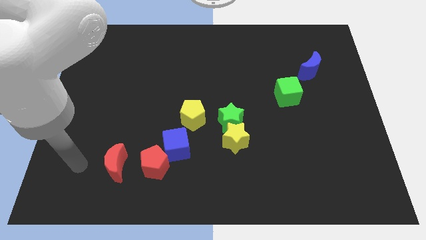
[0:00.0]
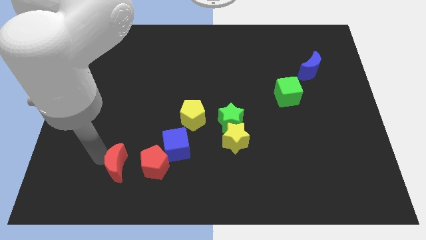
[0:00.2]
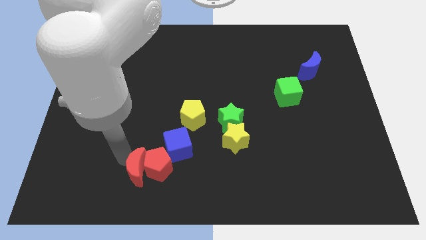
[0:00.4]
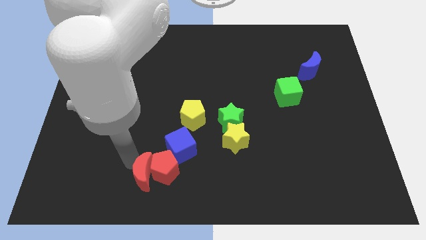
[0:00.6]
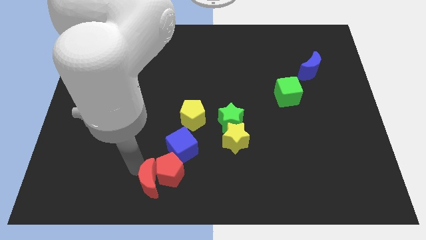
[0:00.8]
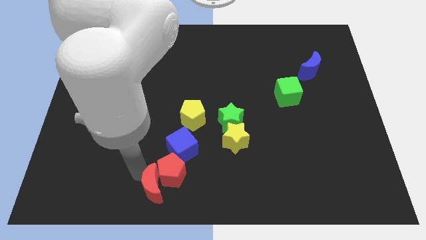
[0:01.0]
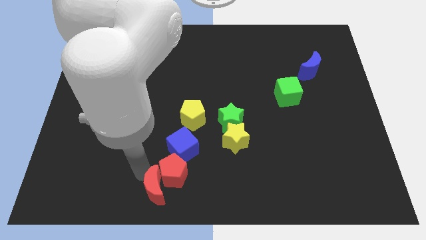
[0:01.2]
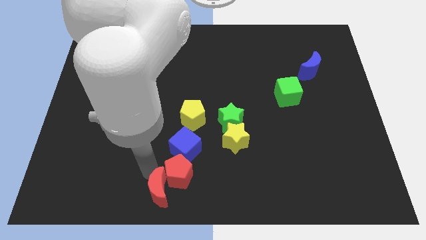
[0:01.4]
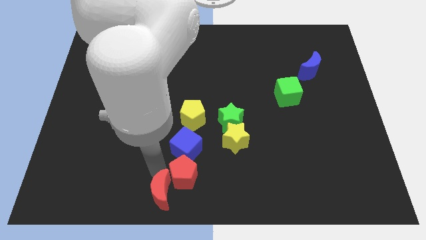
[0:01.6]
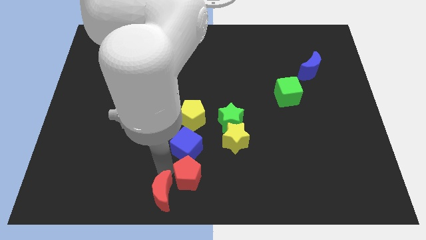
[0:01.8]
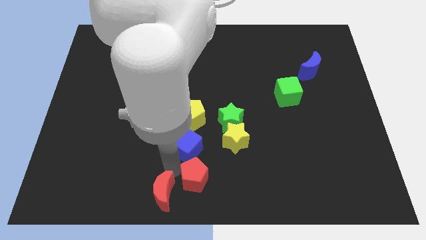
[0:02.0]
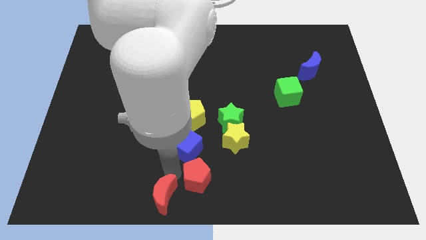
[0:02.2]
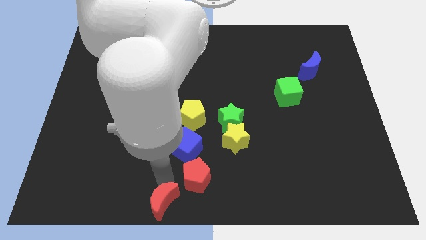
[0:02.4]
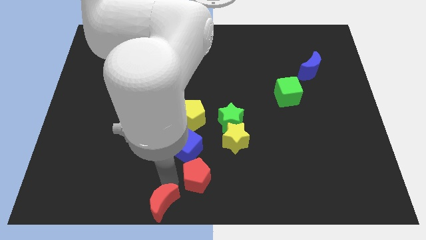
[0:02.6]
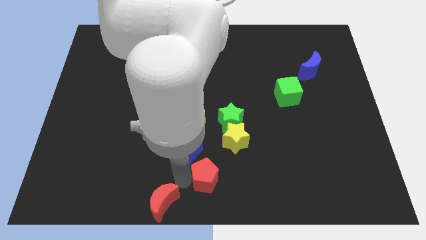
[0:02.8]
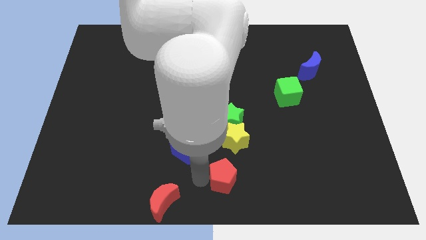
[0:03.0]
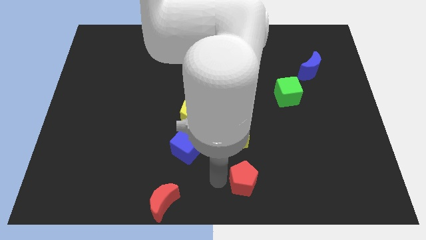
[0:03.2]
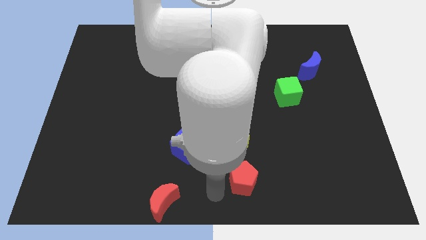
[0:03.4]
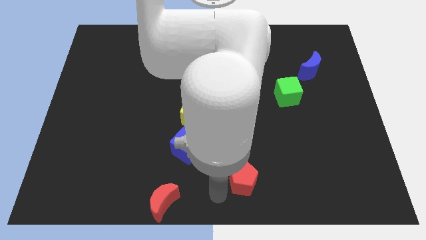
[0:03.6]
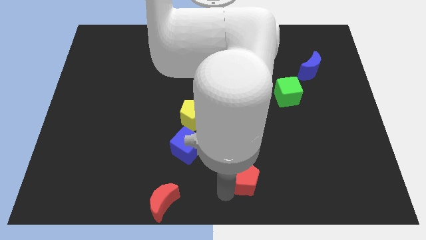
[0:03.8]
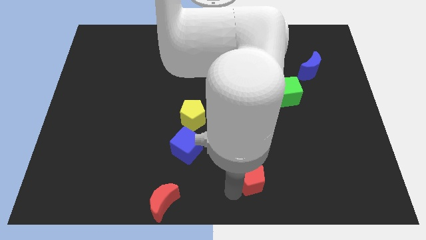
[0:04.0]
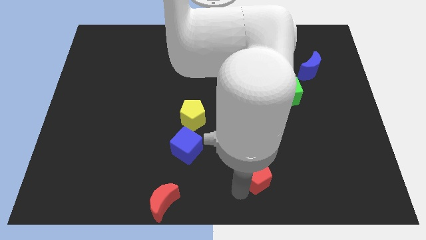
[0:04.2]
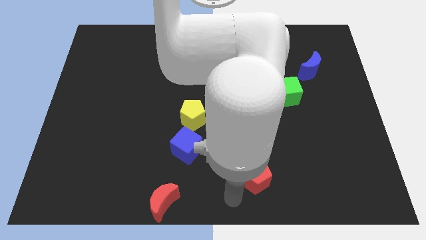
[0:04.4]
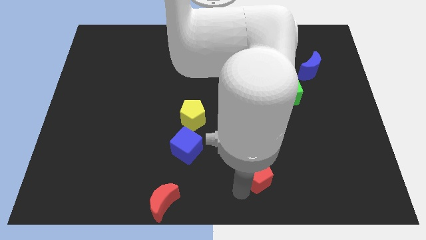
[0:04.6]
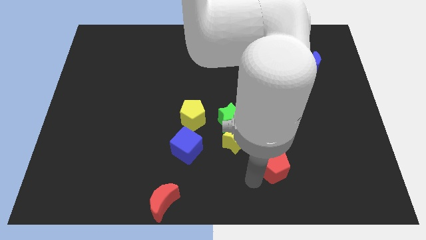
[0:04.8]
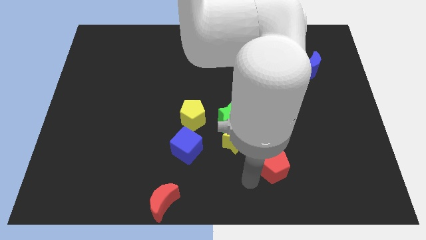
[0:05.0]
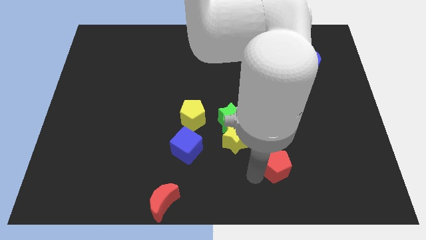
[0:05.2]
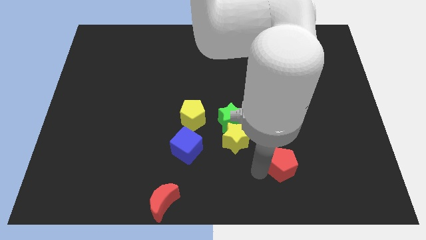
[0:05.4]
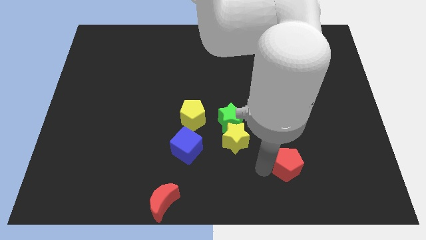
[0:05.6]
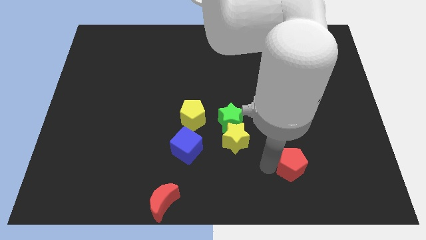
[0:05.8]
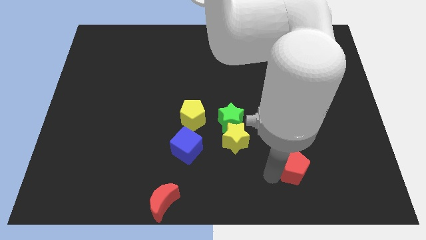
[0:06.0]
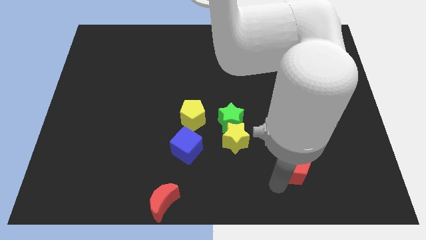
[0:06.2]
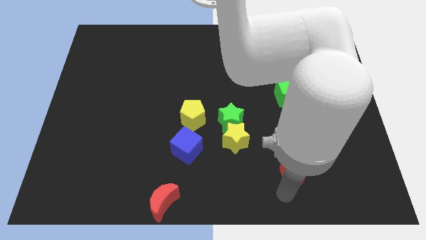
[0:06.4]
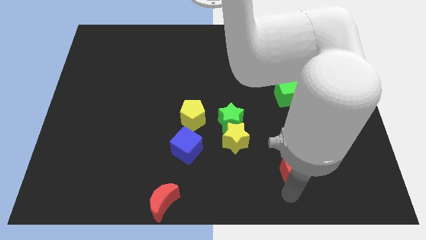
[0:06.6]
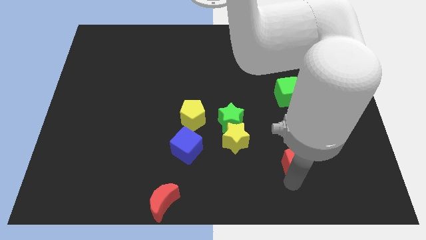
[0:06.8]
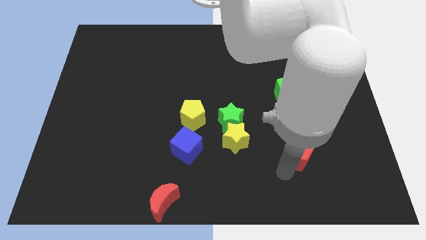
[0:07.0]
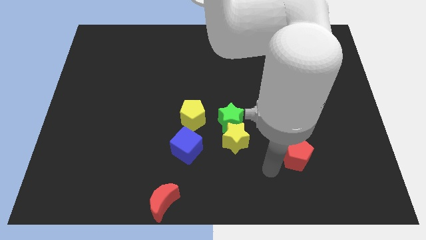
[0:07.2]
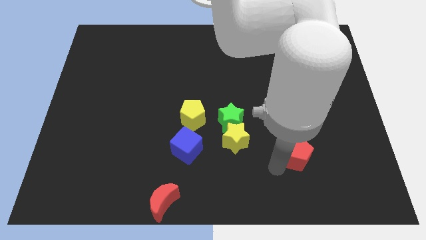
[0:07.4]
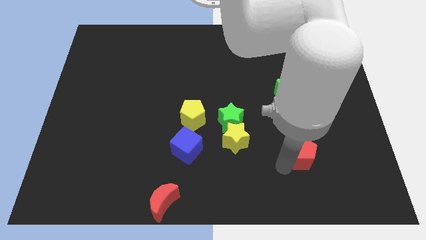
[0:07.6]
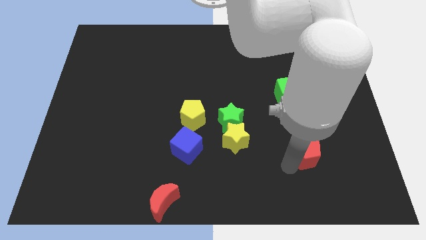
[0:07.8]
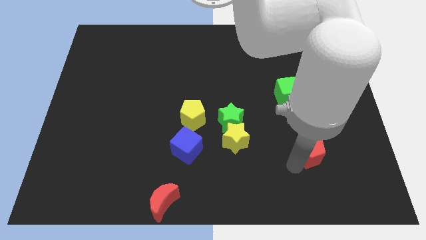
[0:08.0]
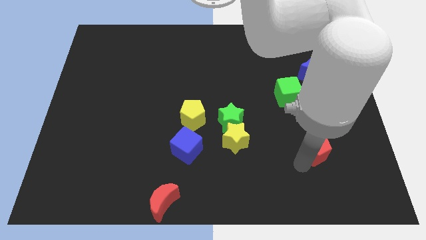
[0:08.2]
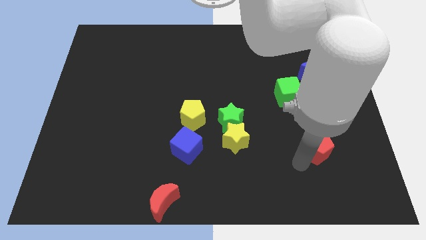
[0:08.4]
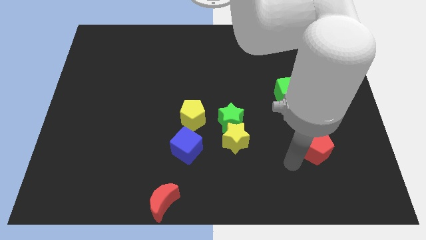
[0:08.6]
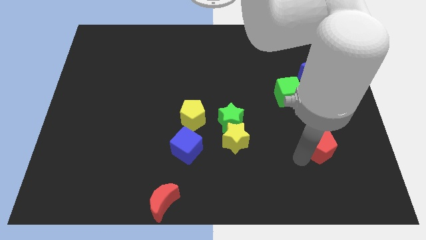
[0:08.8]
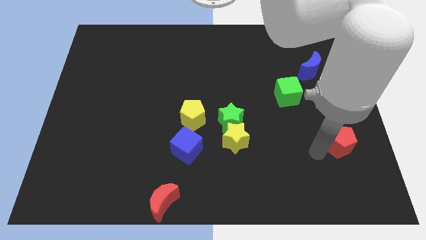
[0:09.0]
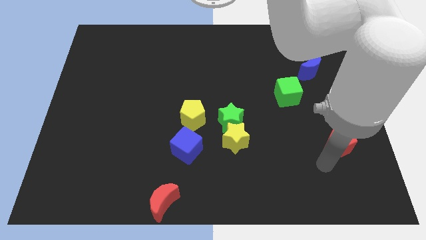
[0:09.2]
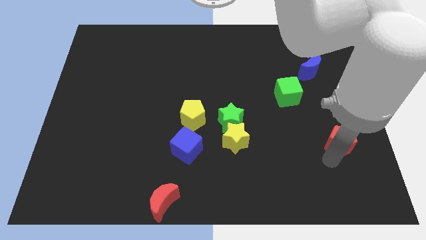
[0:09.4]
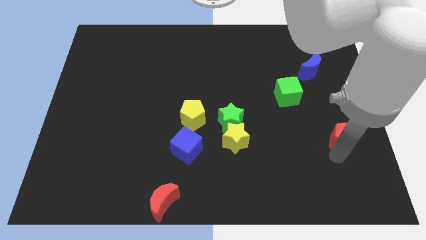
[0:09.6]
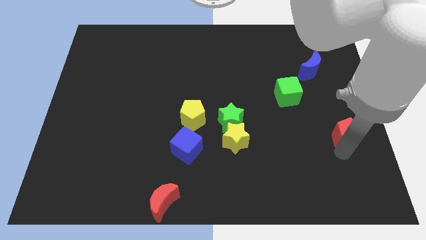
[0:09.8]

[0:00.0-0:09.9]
move the red pentagon to the right side of the board

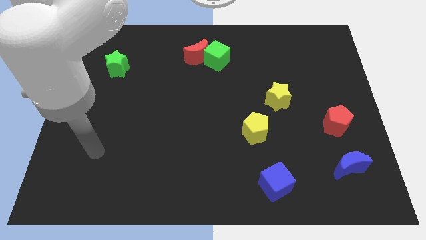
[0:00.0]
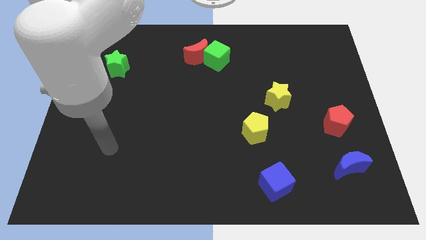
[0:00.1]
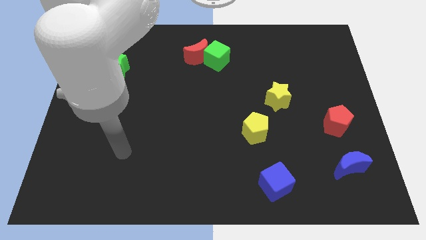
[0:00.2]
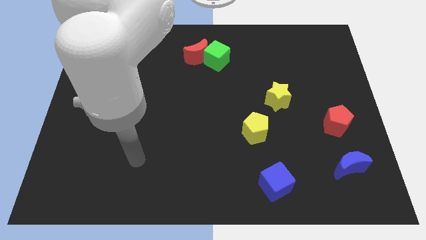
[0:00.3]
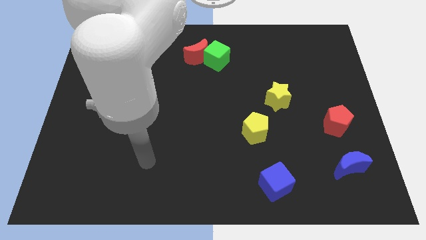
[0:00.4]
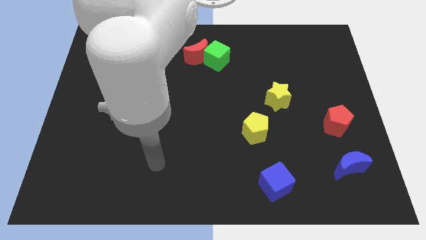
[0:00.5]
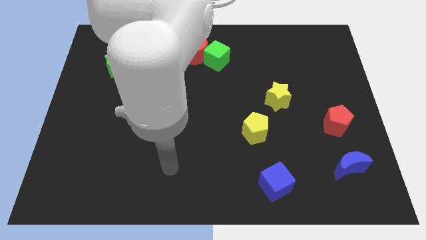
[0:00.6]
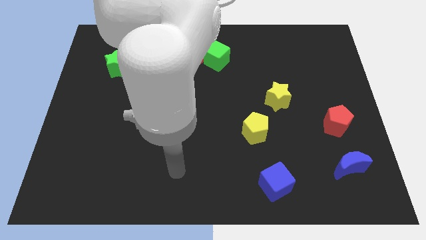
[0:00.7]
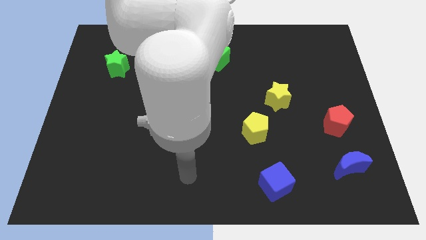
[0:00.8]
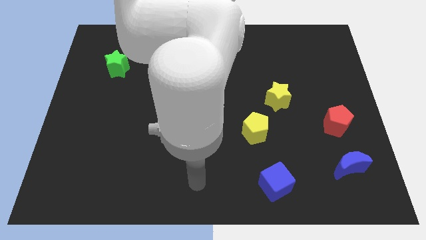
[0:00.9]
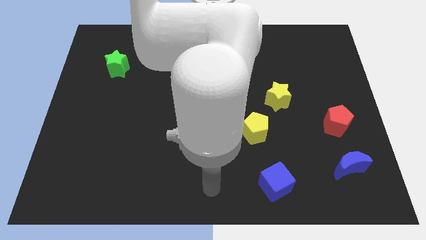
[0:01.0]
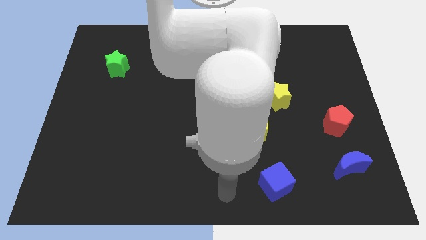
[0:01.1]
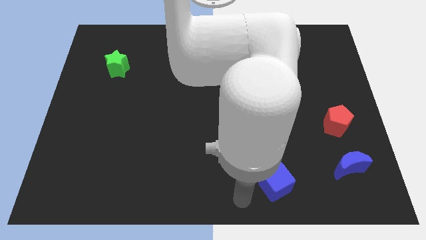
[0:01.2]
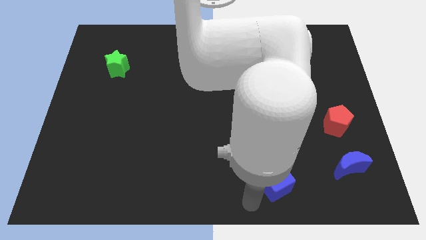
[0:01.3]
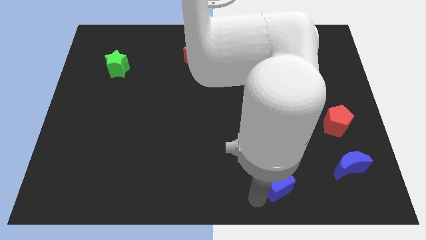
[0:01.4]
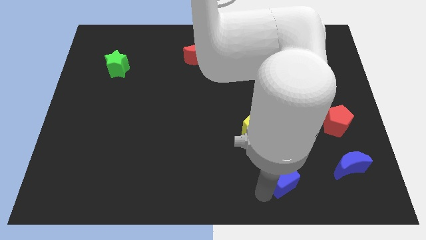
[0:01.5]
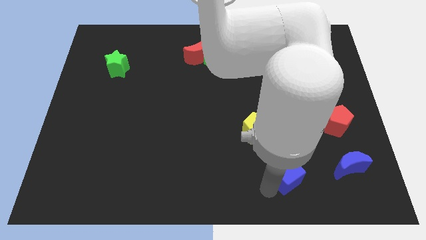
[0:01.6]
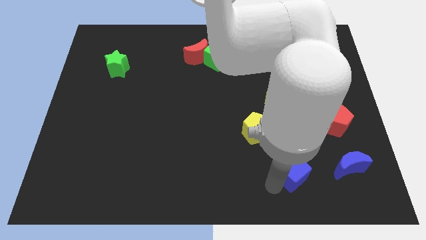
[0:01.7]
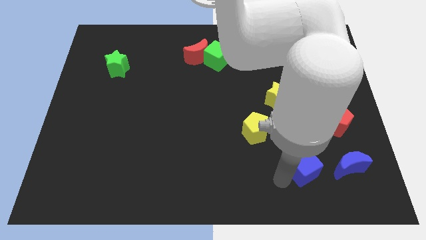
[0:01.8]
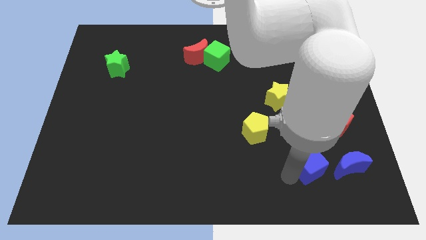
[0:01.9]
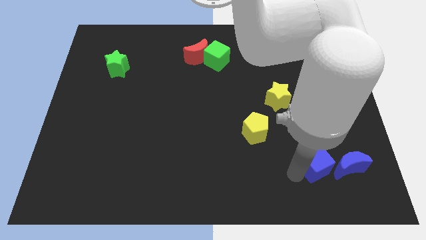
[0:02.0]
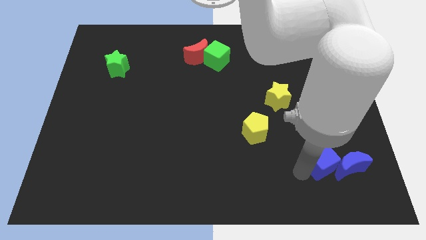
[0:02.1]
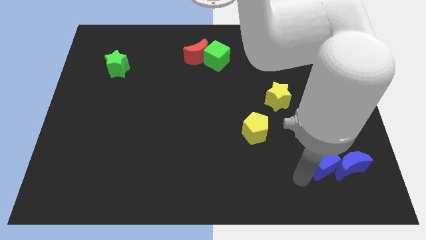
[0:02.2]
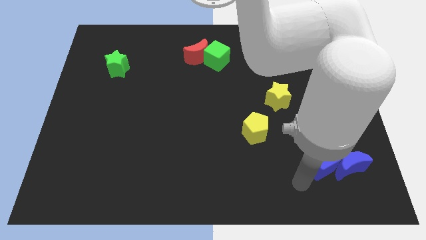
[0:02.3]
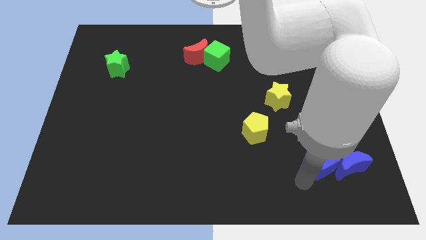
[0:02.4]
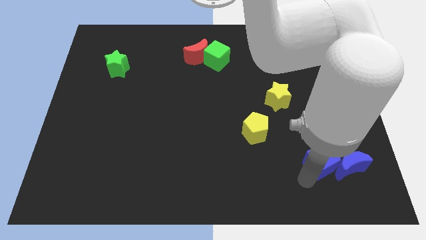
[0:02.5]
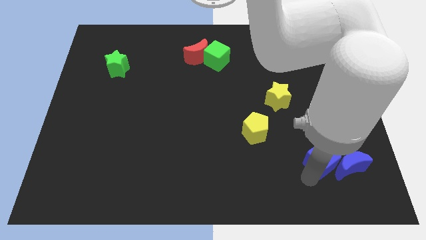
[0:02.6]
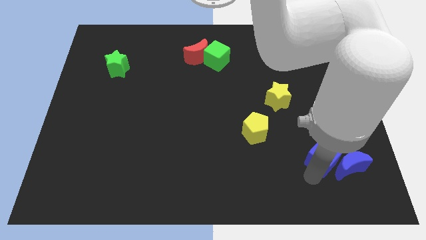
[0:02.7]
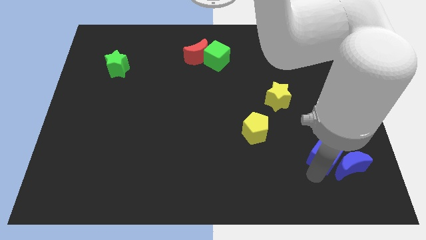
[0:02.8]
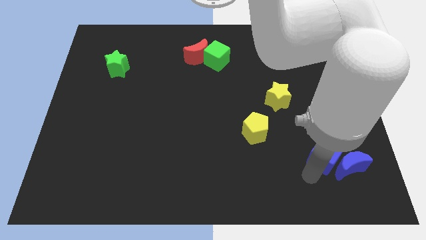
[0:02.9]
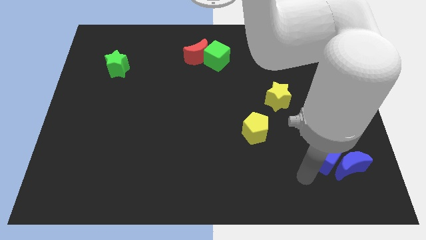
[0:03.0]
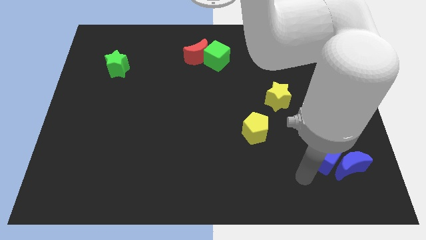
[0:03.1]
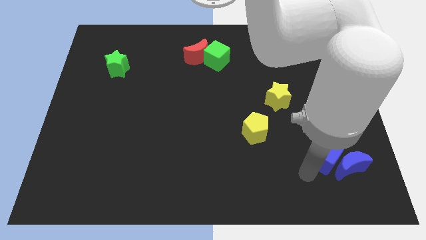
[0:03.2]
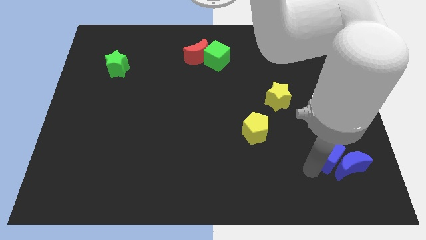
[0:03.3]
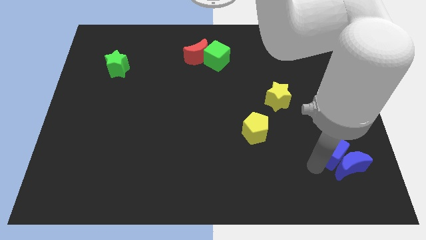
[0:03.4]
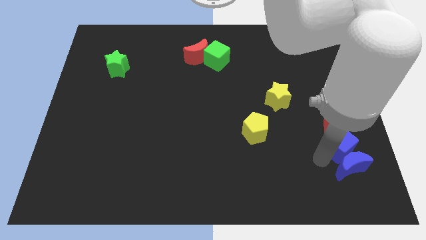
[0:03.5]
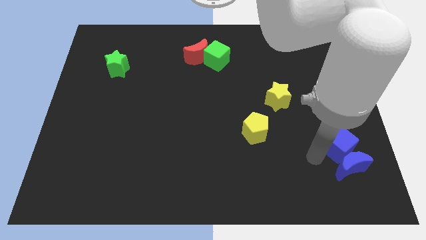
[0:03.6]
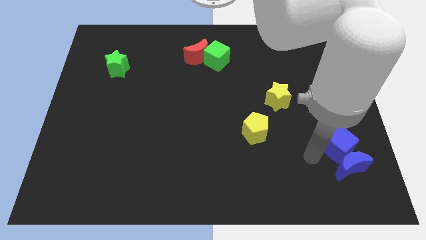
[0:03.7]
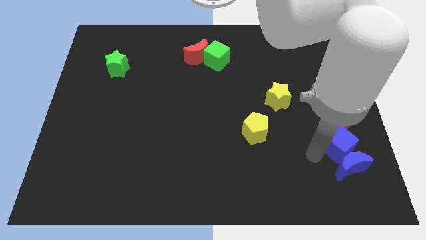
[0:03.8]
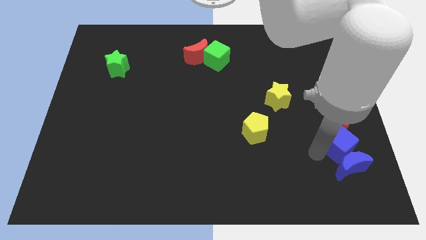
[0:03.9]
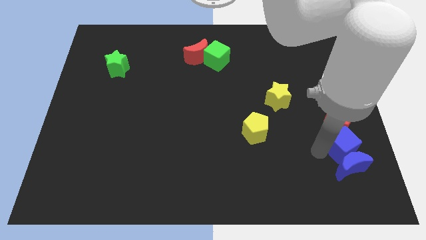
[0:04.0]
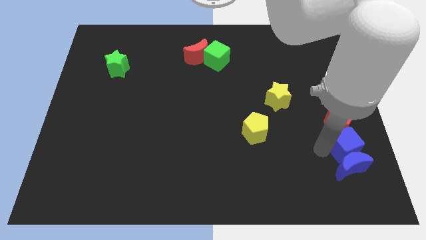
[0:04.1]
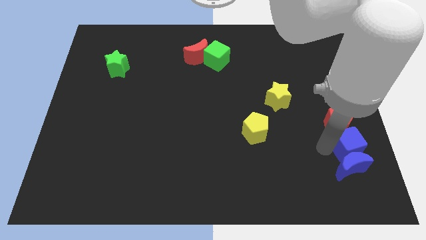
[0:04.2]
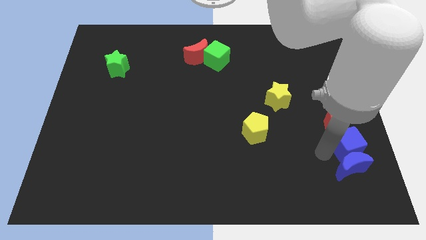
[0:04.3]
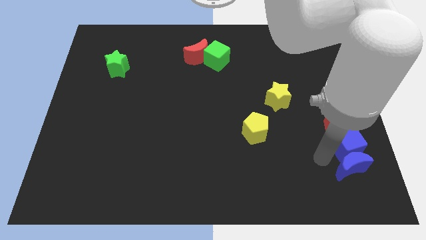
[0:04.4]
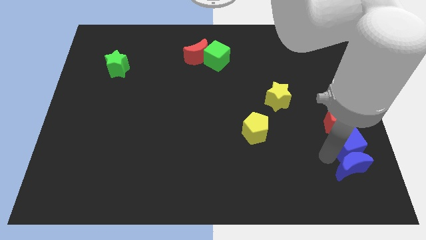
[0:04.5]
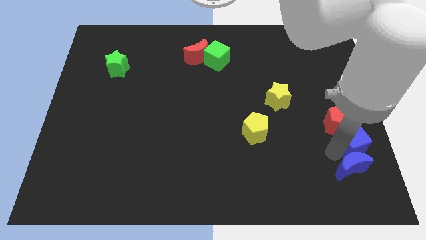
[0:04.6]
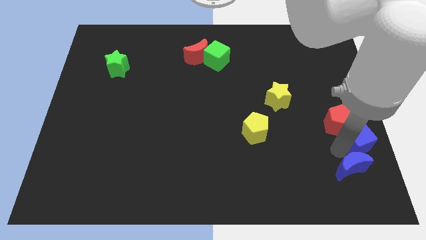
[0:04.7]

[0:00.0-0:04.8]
move the blue cube to the right side of the board
